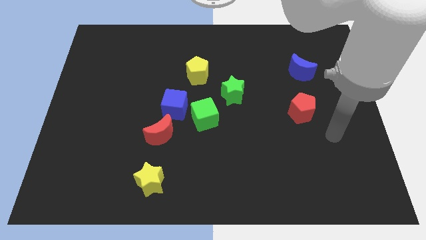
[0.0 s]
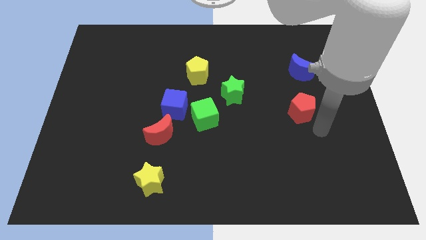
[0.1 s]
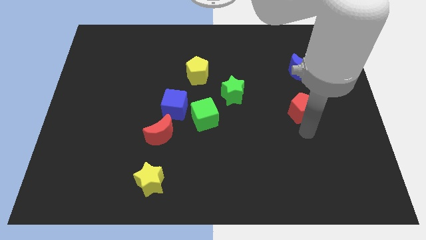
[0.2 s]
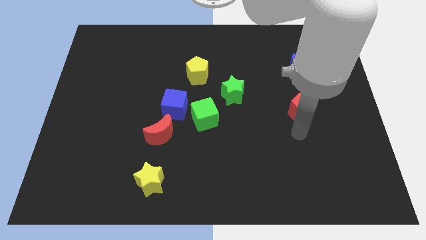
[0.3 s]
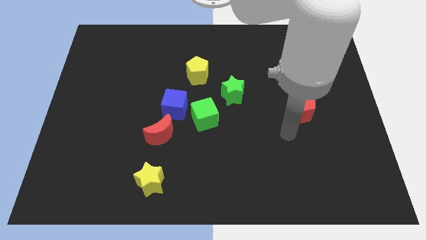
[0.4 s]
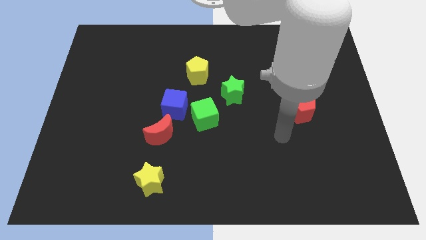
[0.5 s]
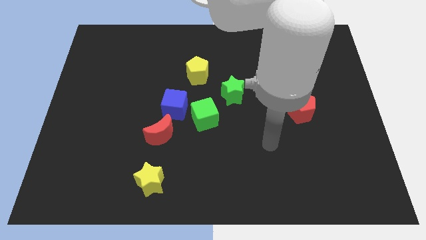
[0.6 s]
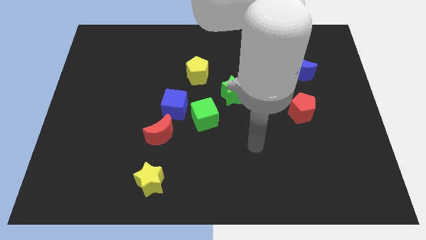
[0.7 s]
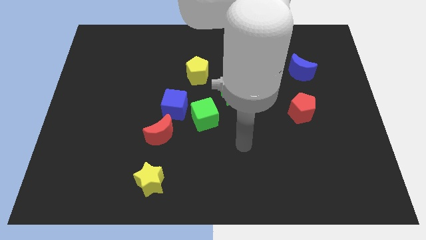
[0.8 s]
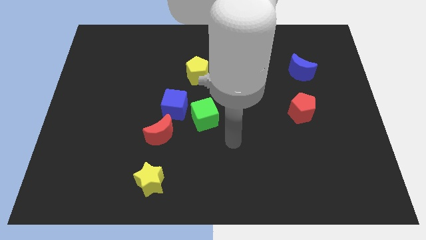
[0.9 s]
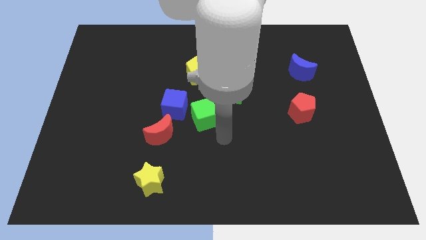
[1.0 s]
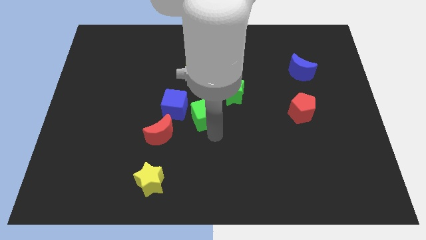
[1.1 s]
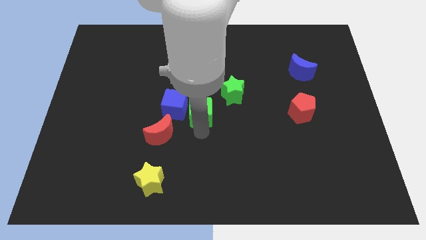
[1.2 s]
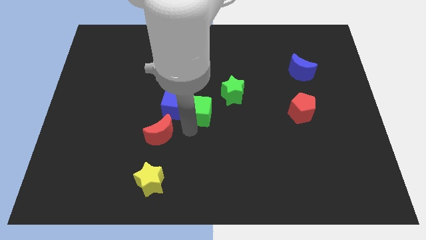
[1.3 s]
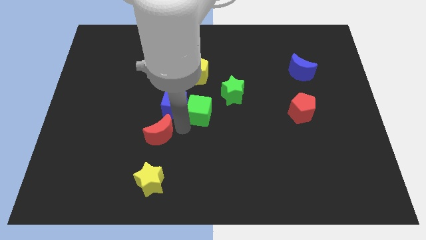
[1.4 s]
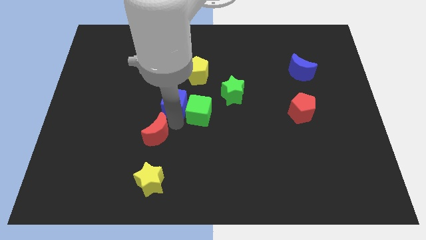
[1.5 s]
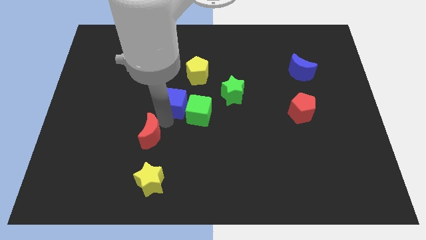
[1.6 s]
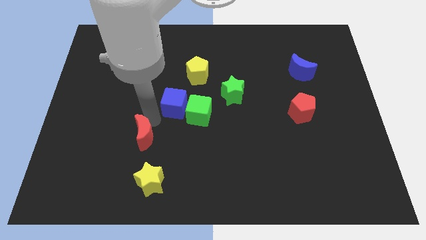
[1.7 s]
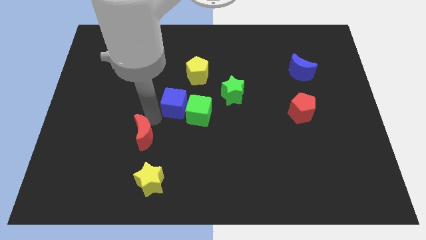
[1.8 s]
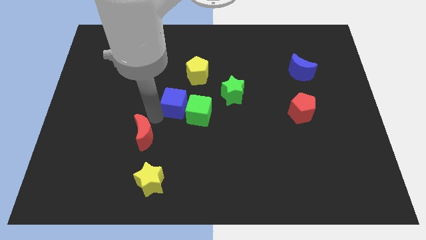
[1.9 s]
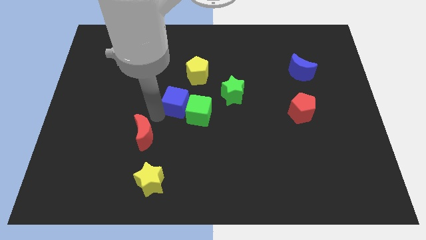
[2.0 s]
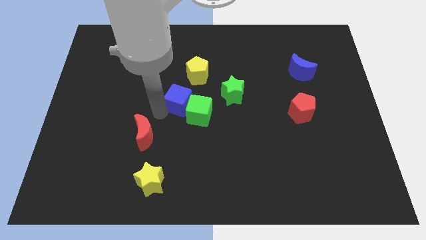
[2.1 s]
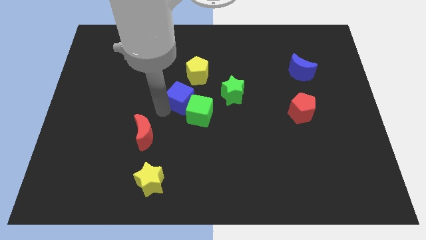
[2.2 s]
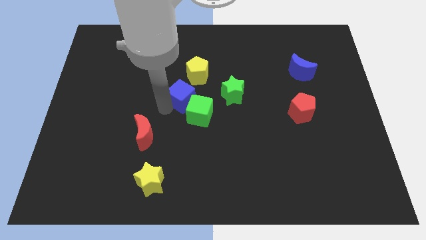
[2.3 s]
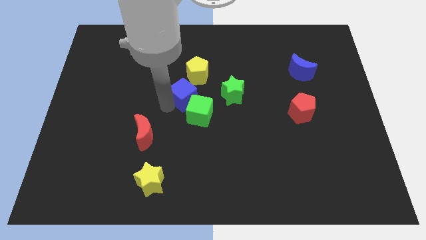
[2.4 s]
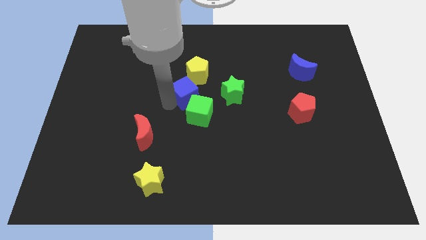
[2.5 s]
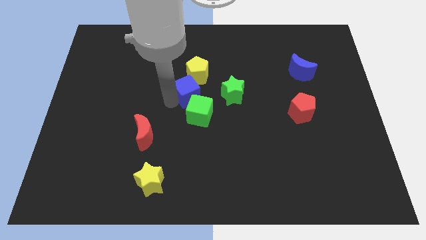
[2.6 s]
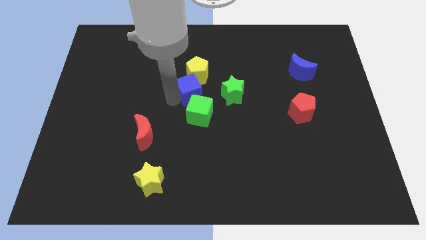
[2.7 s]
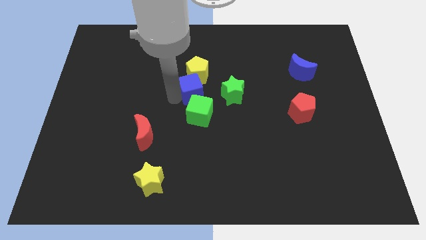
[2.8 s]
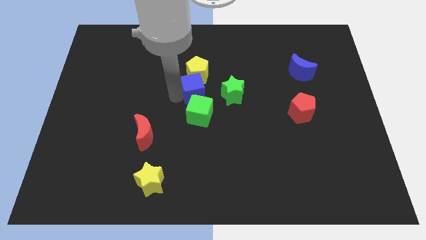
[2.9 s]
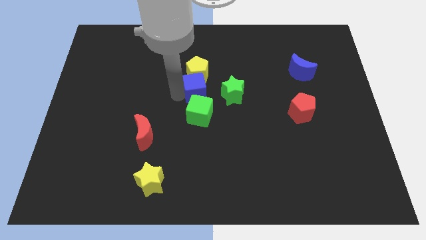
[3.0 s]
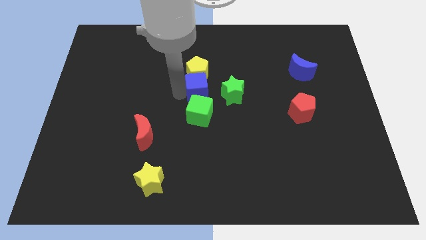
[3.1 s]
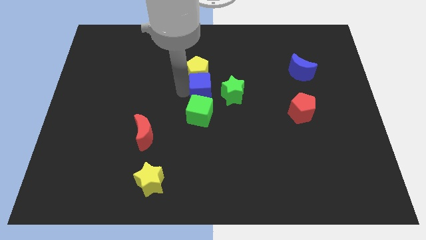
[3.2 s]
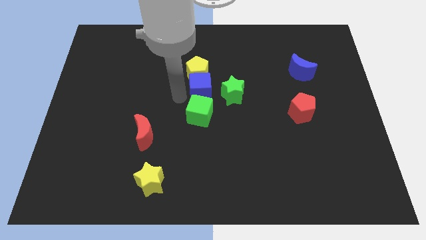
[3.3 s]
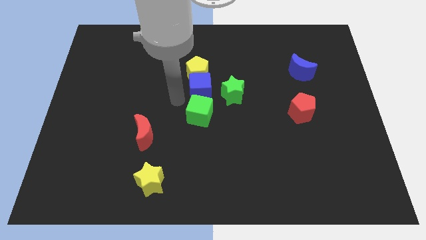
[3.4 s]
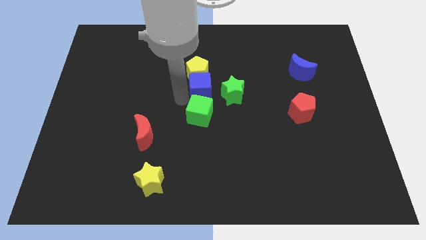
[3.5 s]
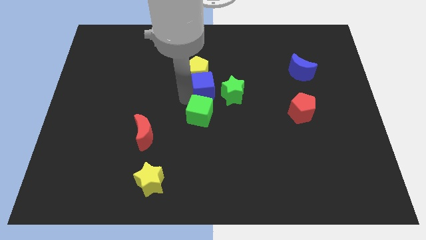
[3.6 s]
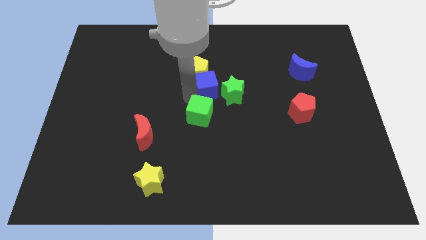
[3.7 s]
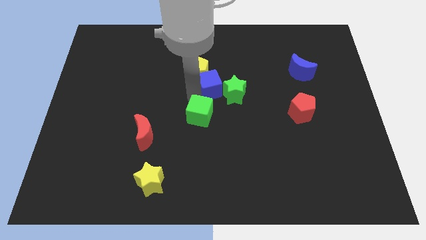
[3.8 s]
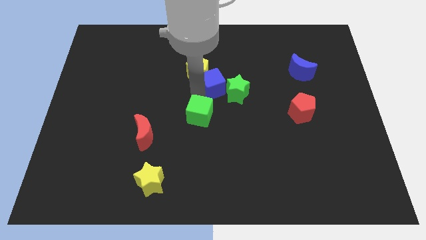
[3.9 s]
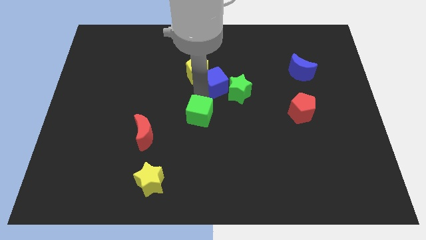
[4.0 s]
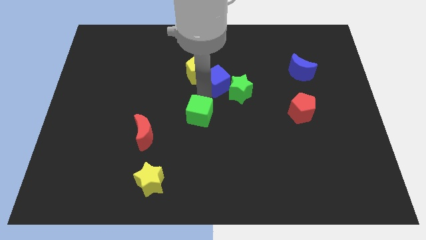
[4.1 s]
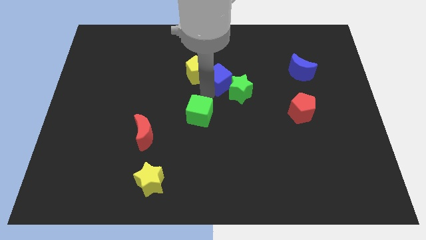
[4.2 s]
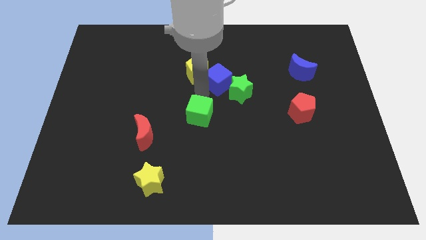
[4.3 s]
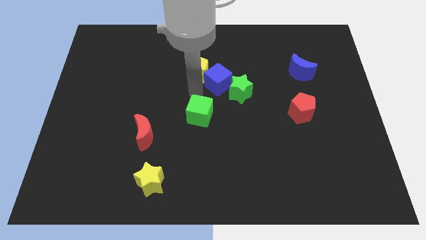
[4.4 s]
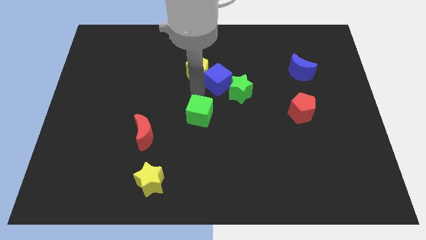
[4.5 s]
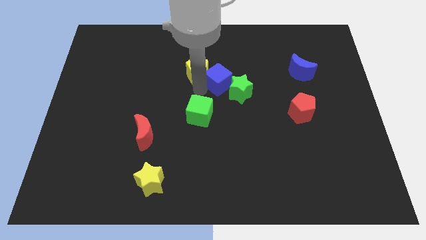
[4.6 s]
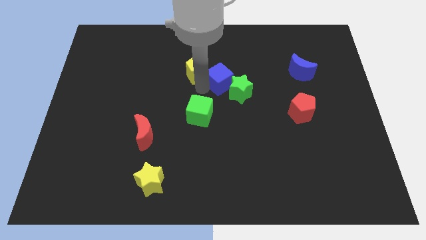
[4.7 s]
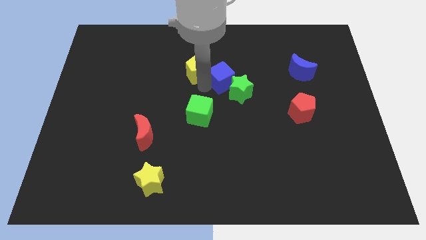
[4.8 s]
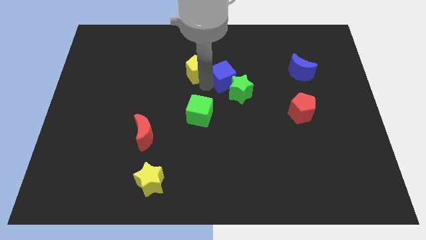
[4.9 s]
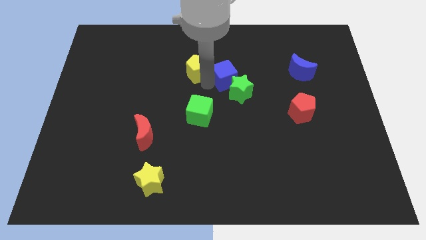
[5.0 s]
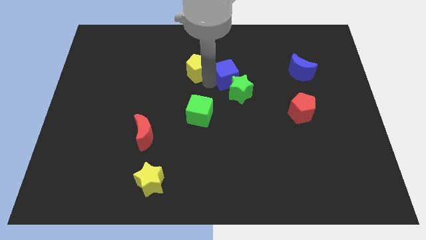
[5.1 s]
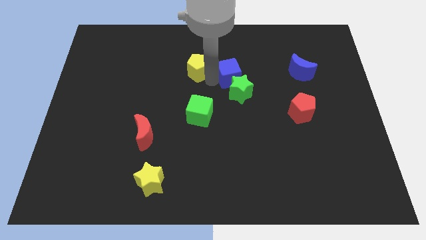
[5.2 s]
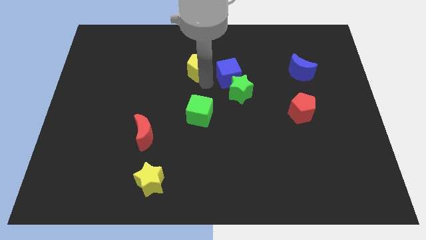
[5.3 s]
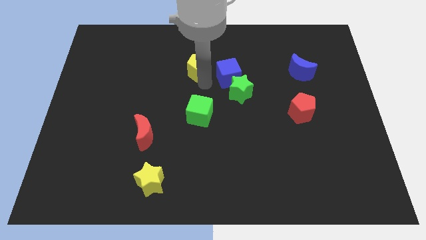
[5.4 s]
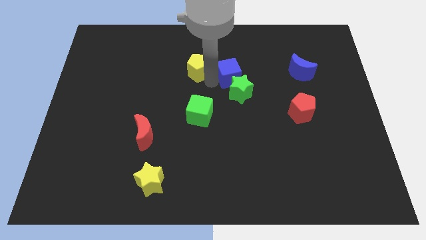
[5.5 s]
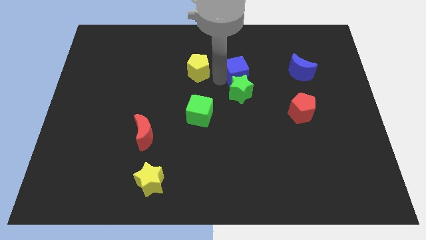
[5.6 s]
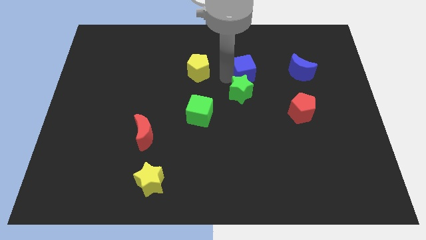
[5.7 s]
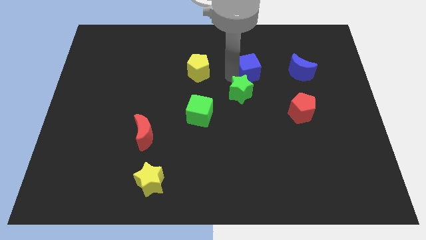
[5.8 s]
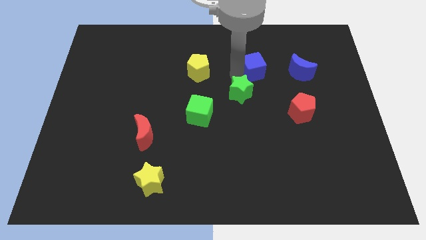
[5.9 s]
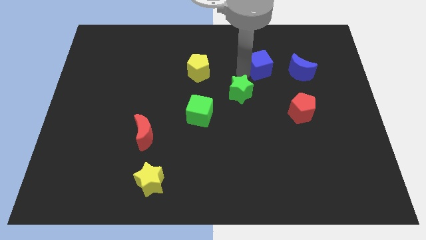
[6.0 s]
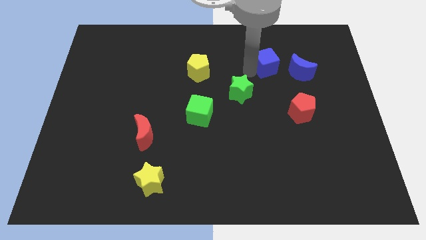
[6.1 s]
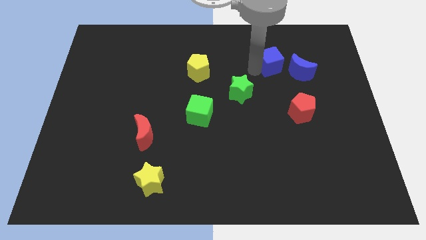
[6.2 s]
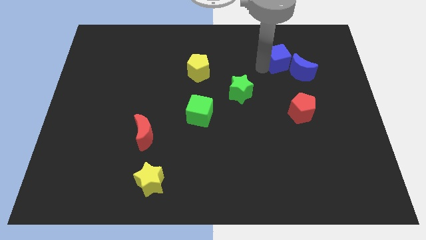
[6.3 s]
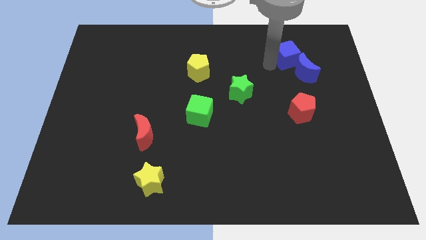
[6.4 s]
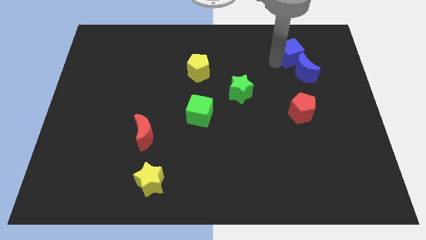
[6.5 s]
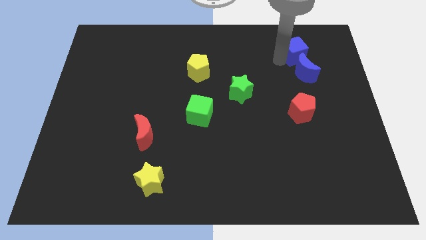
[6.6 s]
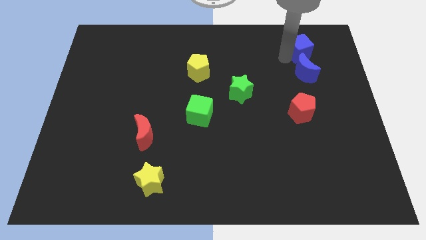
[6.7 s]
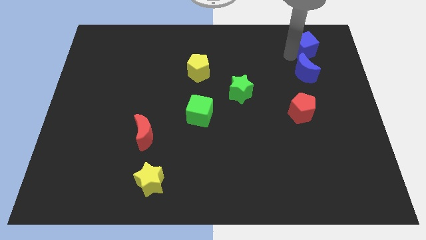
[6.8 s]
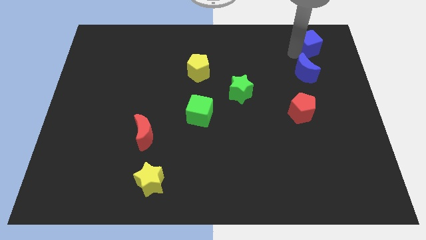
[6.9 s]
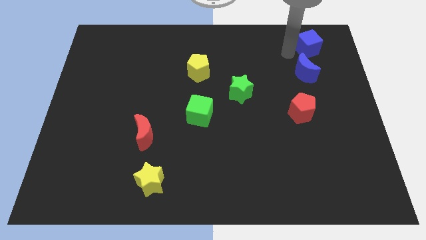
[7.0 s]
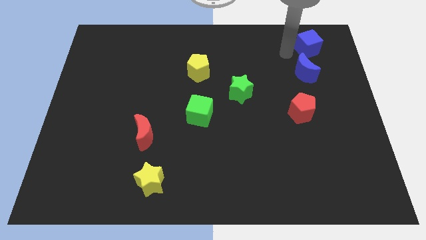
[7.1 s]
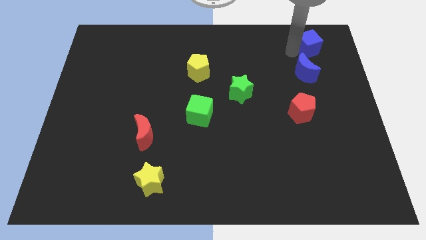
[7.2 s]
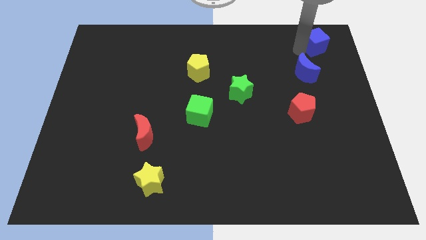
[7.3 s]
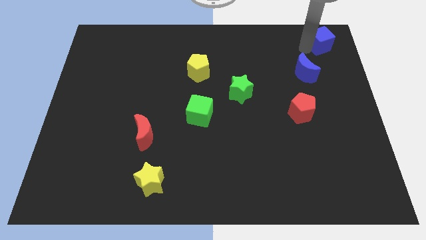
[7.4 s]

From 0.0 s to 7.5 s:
push the blue cube to the top right of the board
